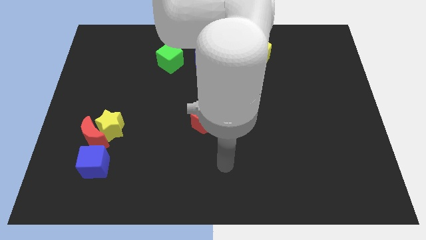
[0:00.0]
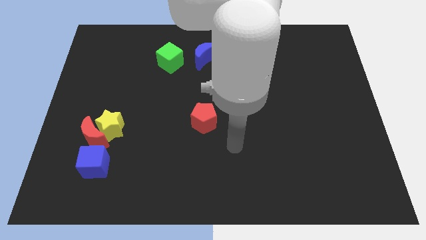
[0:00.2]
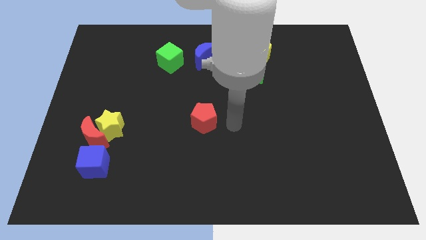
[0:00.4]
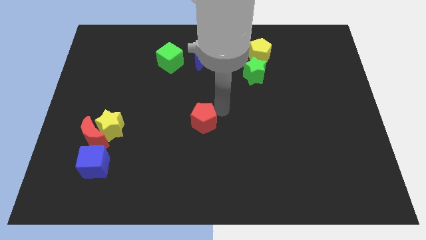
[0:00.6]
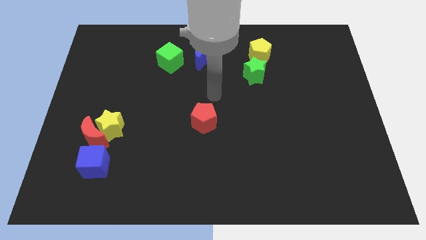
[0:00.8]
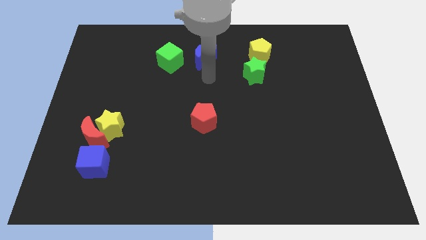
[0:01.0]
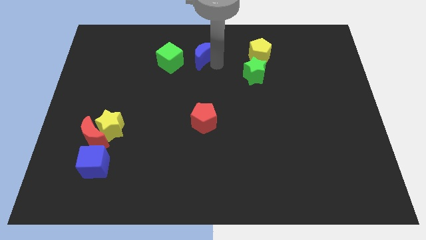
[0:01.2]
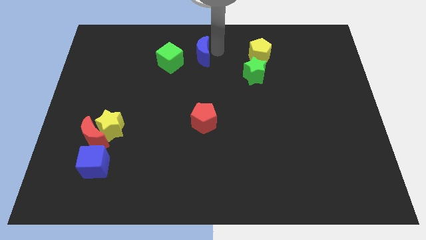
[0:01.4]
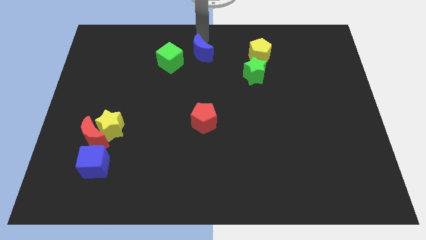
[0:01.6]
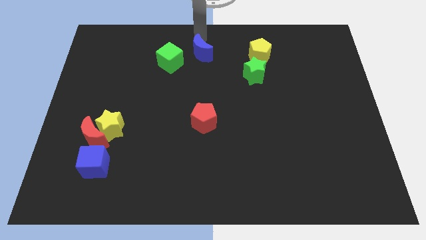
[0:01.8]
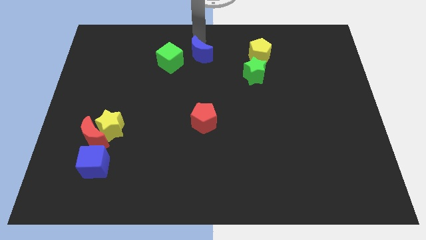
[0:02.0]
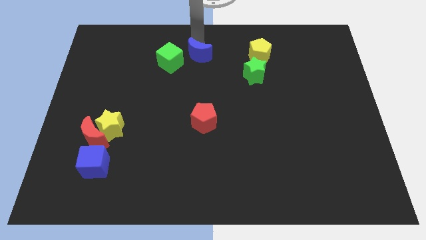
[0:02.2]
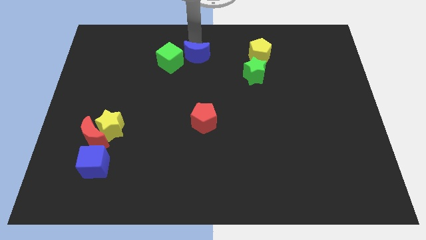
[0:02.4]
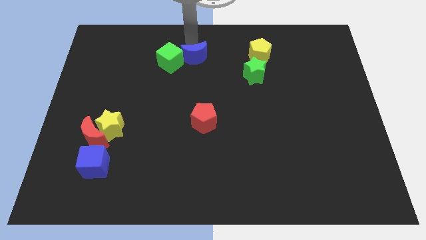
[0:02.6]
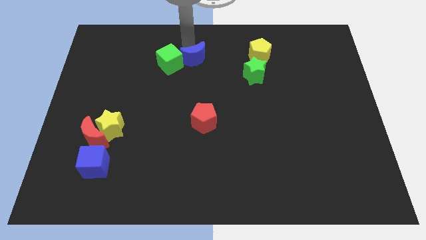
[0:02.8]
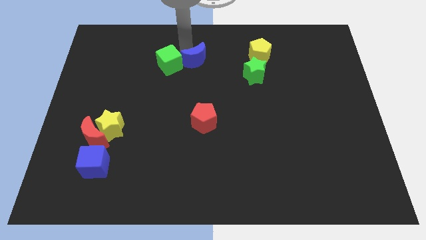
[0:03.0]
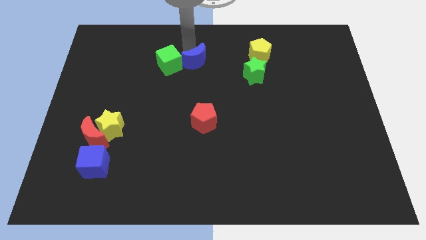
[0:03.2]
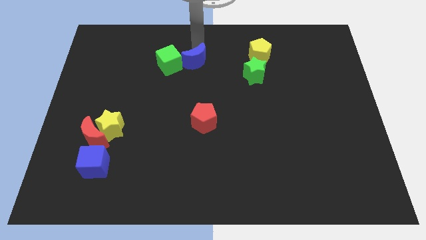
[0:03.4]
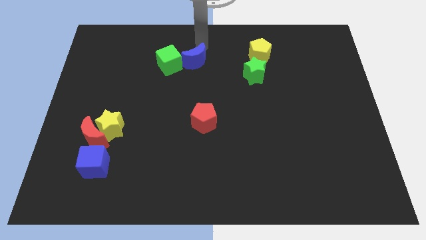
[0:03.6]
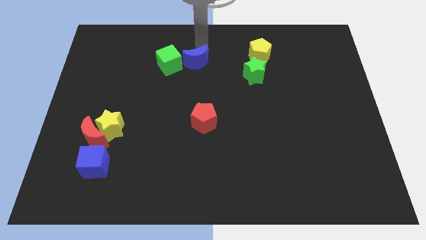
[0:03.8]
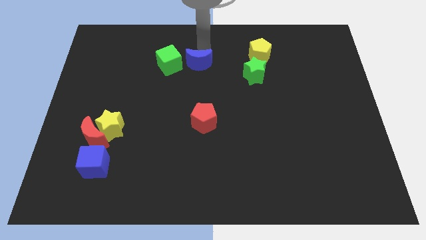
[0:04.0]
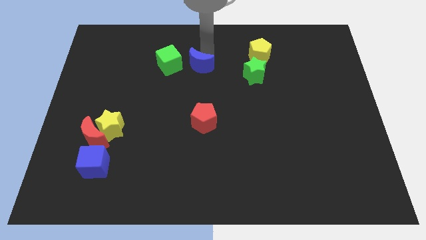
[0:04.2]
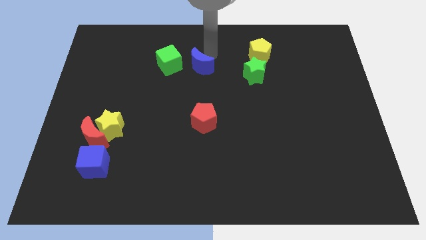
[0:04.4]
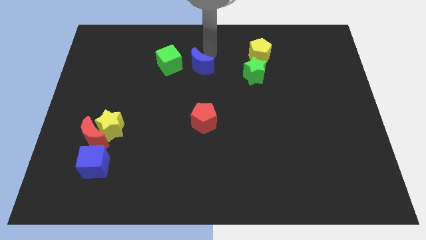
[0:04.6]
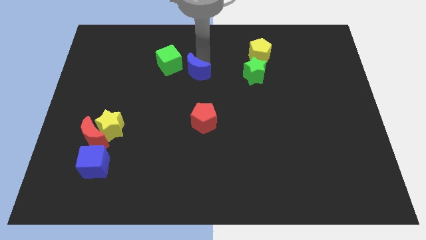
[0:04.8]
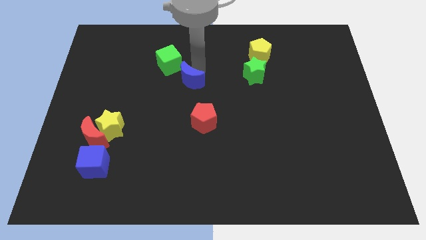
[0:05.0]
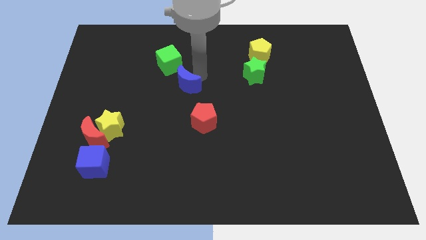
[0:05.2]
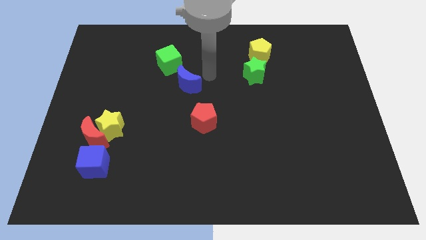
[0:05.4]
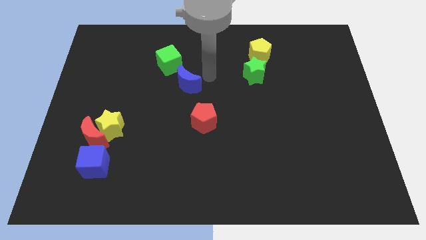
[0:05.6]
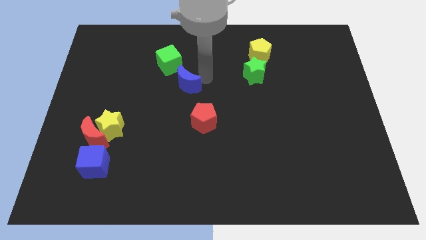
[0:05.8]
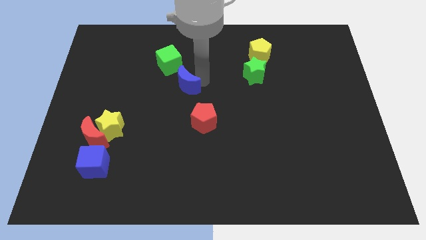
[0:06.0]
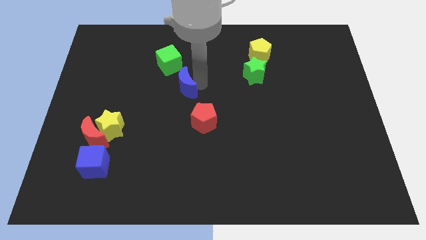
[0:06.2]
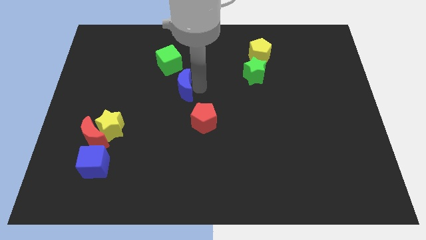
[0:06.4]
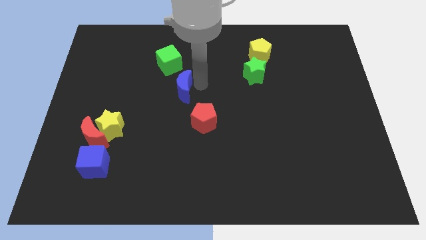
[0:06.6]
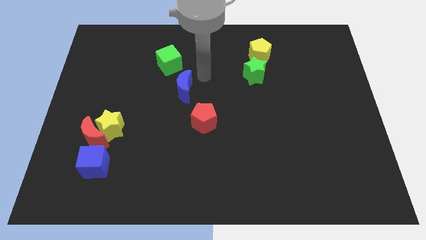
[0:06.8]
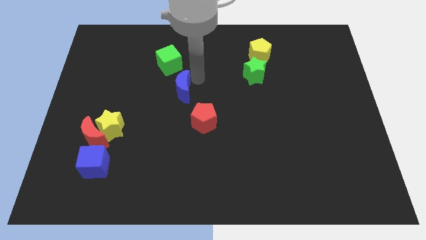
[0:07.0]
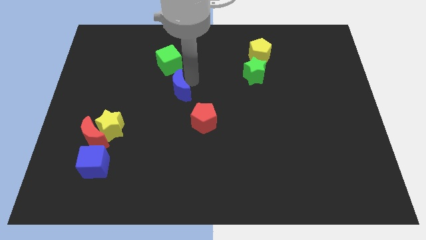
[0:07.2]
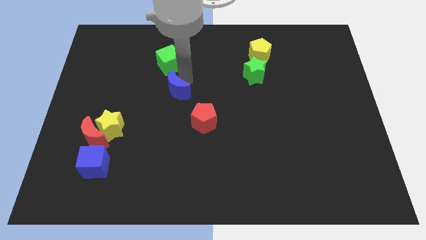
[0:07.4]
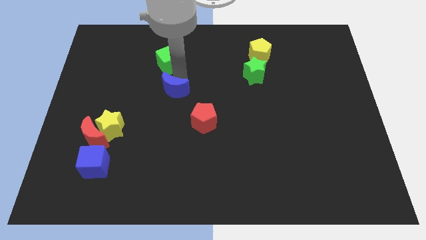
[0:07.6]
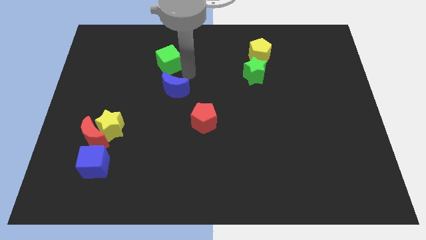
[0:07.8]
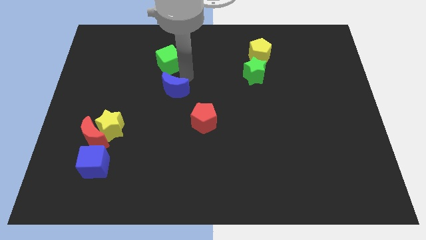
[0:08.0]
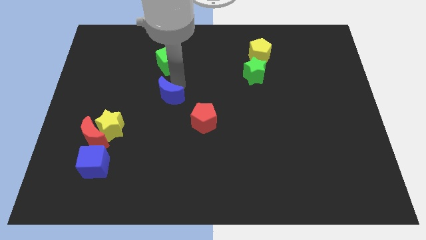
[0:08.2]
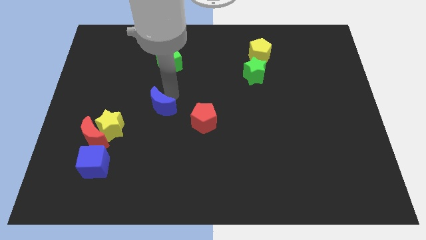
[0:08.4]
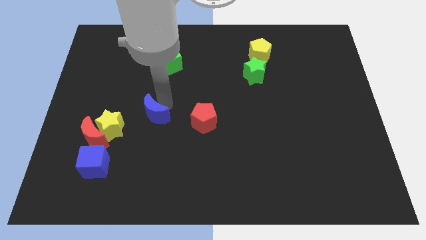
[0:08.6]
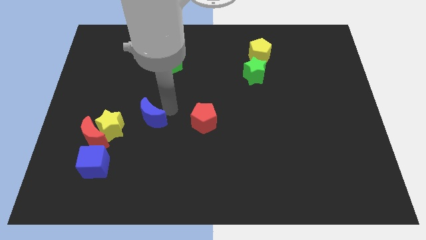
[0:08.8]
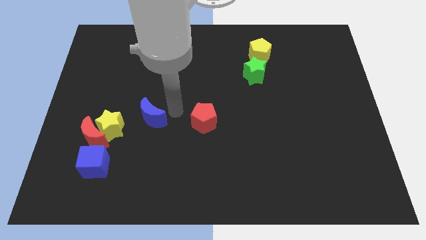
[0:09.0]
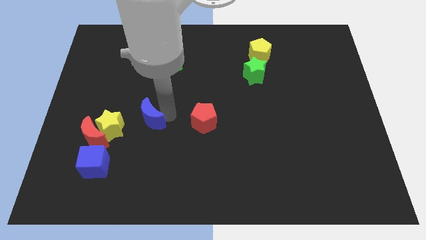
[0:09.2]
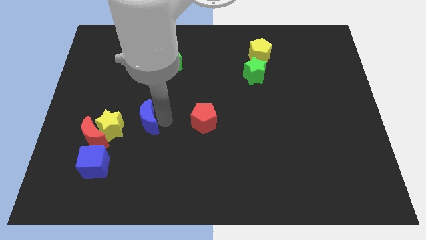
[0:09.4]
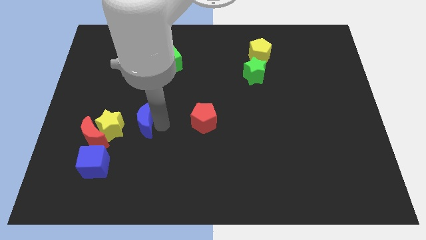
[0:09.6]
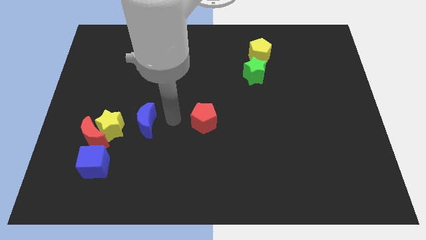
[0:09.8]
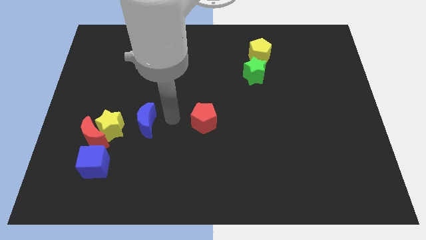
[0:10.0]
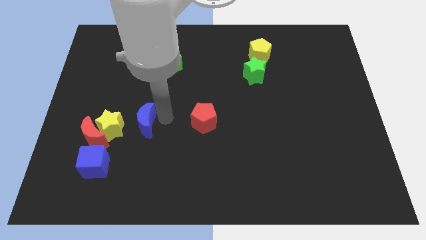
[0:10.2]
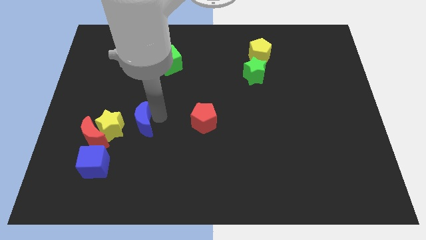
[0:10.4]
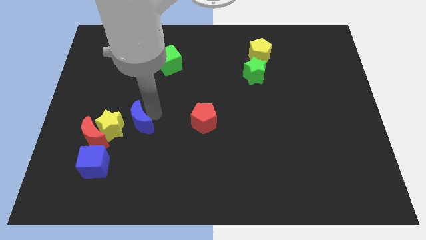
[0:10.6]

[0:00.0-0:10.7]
push the blue moon to the yellow star

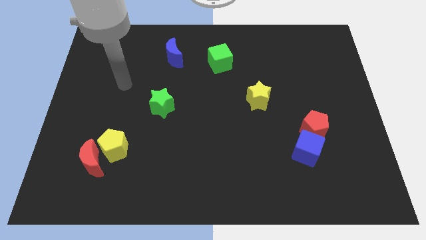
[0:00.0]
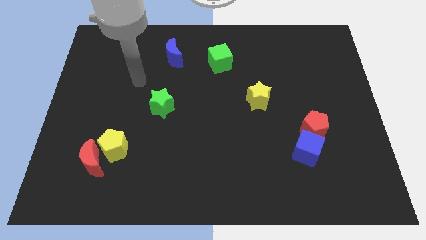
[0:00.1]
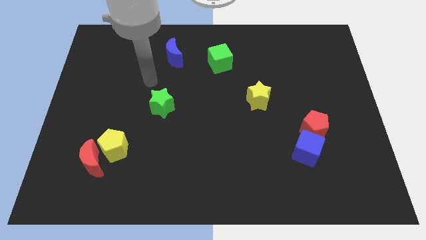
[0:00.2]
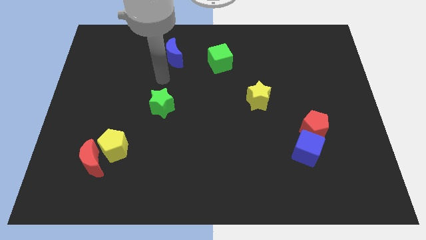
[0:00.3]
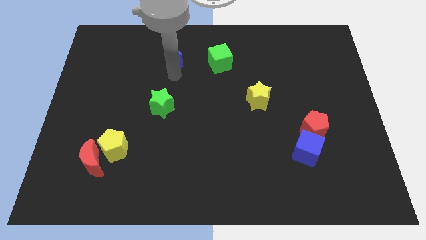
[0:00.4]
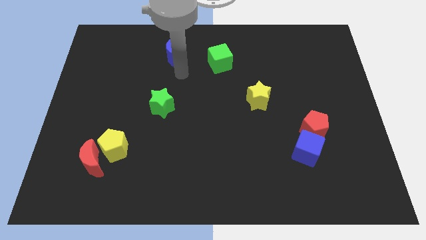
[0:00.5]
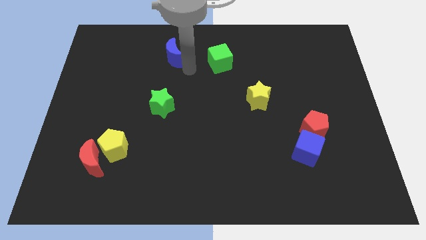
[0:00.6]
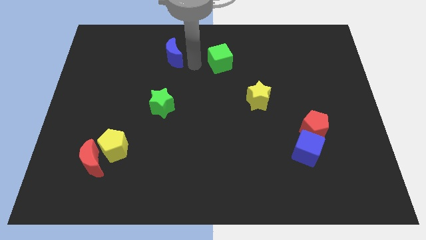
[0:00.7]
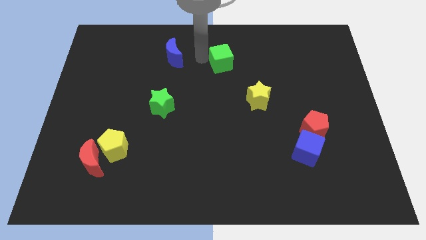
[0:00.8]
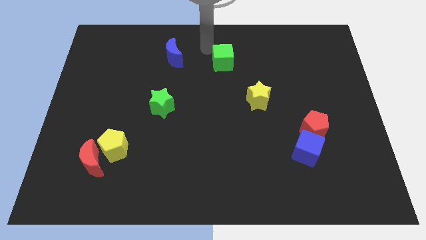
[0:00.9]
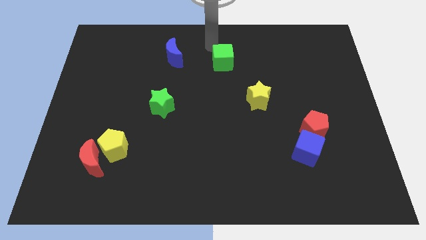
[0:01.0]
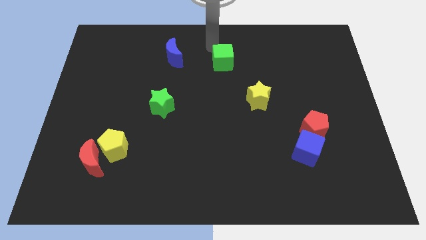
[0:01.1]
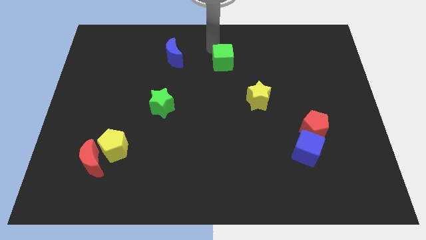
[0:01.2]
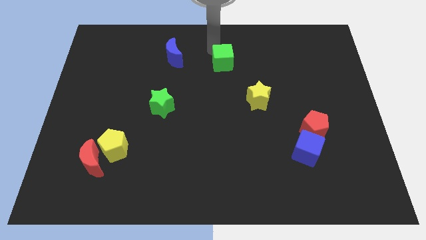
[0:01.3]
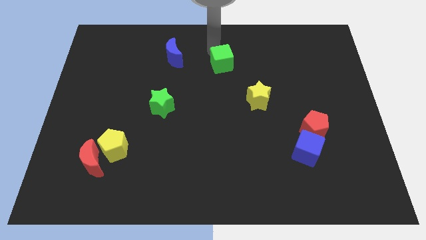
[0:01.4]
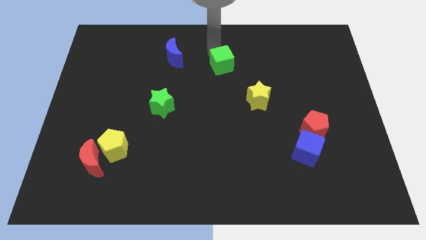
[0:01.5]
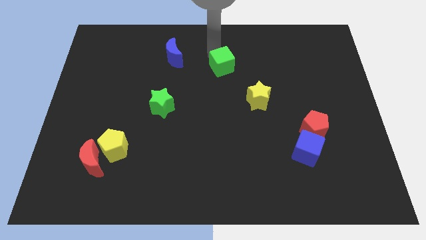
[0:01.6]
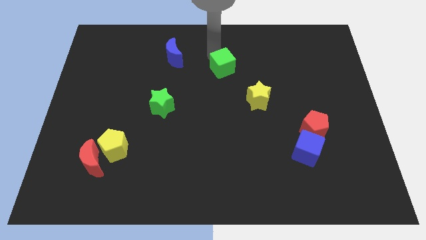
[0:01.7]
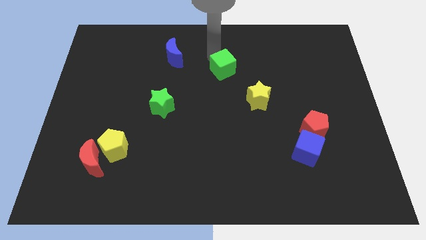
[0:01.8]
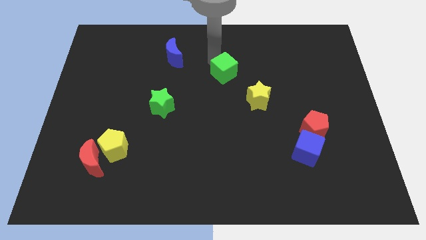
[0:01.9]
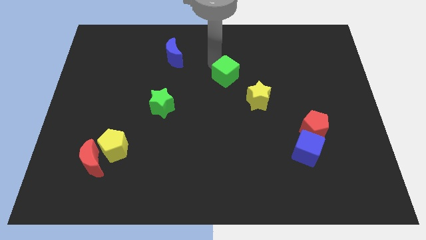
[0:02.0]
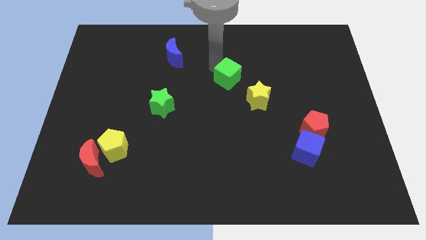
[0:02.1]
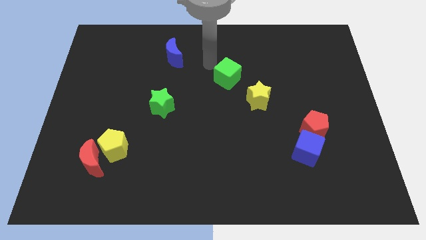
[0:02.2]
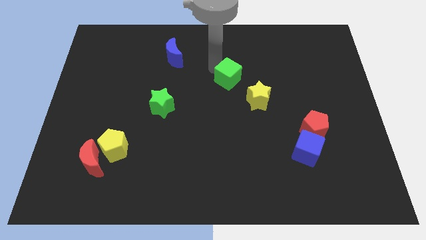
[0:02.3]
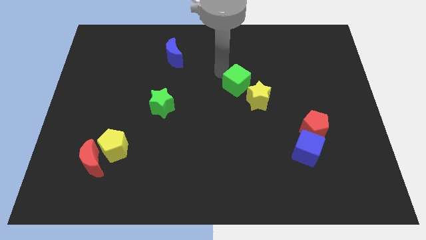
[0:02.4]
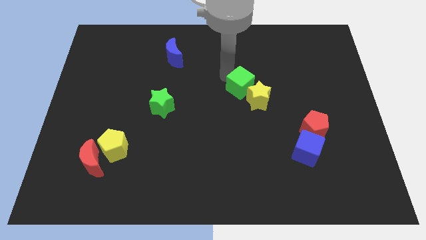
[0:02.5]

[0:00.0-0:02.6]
move the green cube to the yellow star
